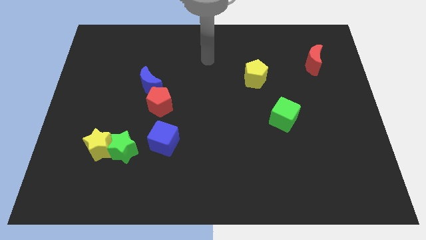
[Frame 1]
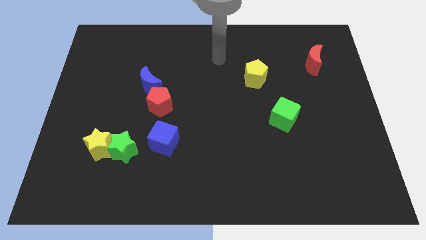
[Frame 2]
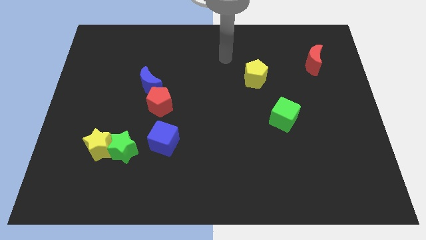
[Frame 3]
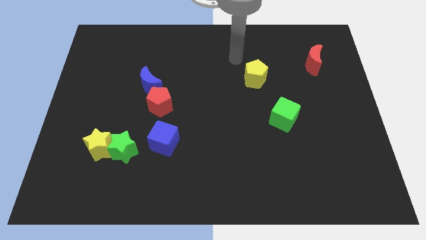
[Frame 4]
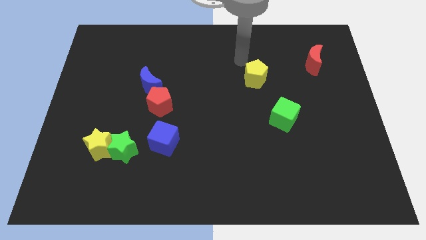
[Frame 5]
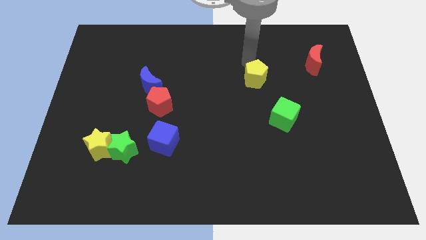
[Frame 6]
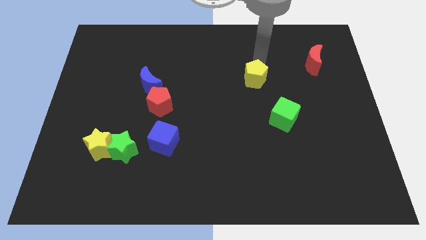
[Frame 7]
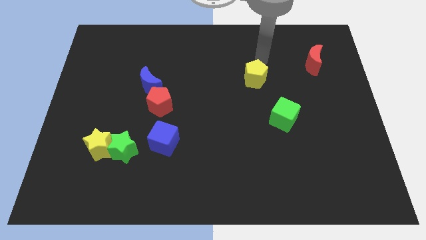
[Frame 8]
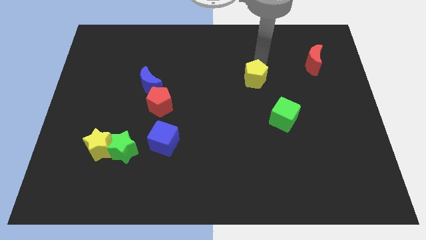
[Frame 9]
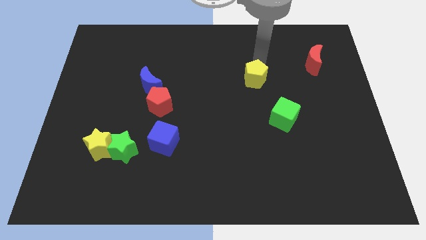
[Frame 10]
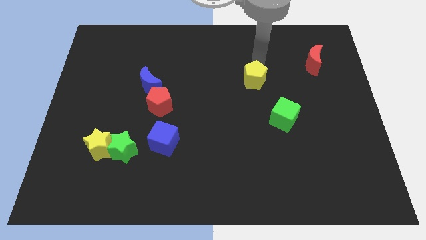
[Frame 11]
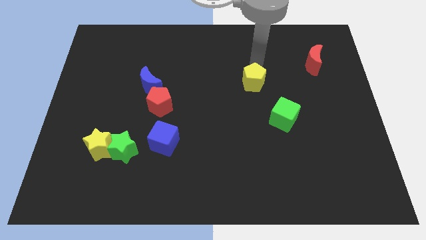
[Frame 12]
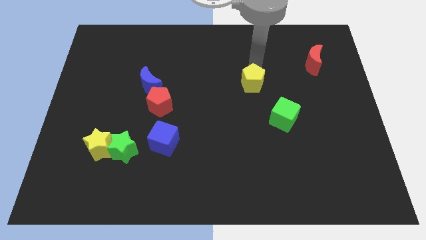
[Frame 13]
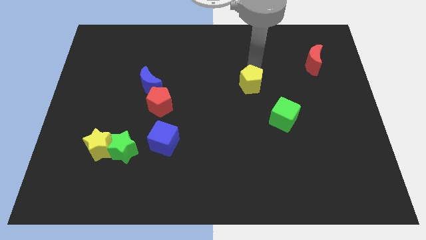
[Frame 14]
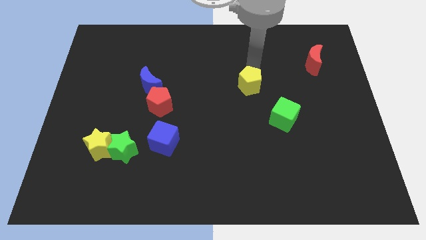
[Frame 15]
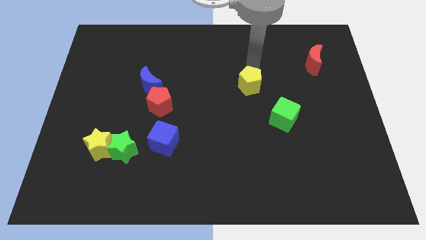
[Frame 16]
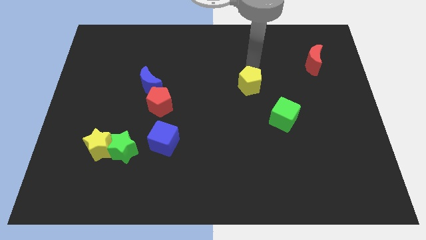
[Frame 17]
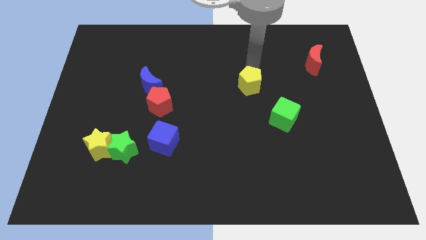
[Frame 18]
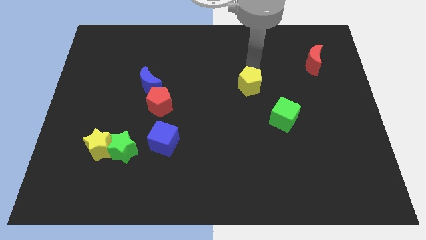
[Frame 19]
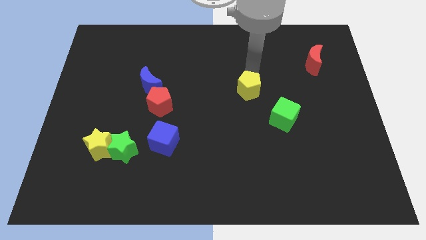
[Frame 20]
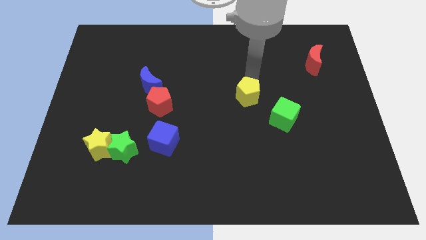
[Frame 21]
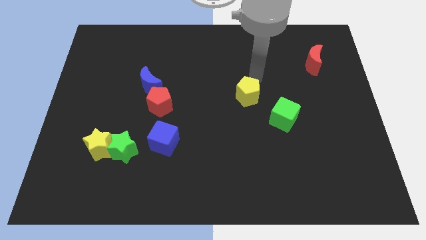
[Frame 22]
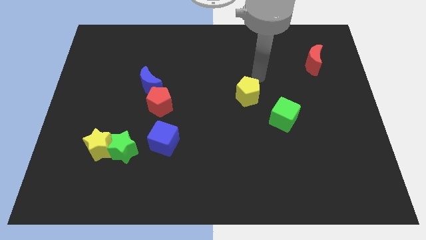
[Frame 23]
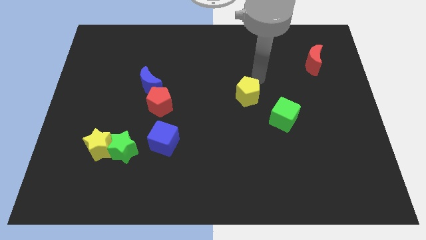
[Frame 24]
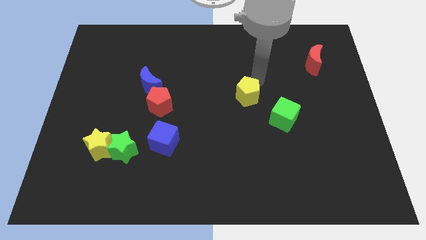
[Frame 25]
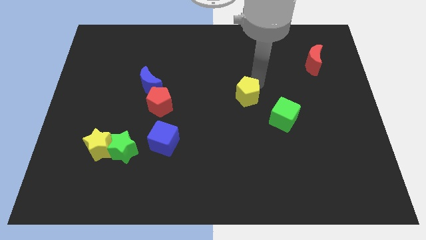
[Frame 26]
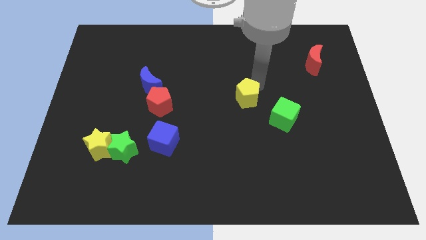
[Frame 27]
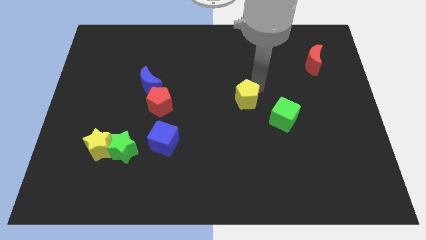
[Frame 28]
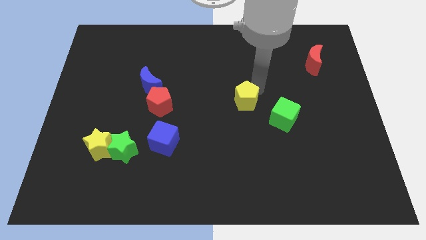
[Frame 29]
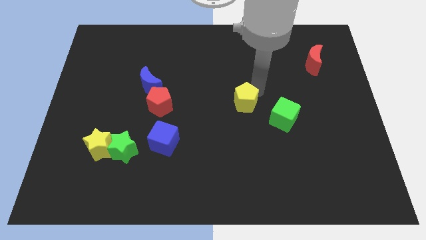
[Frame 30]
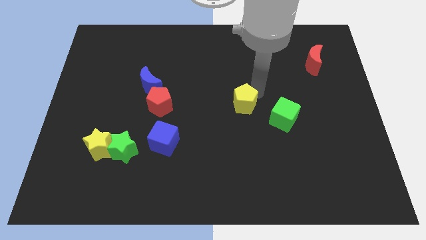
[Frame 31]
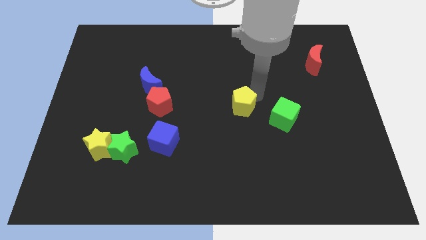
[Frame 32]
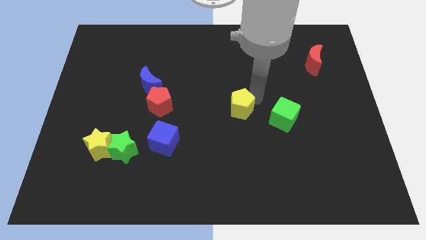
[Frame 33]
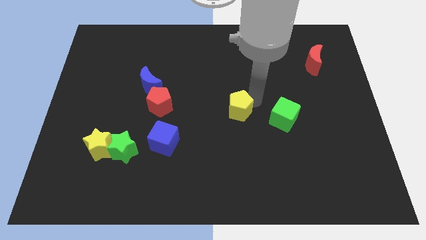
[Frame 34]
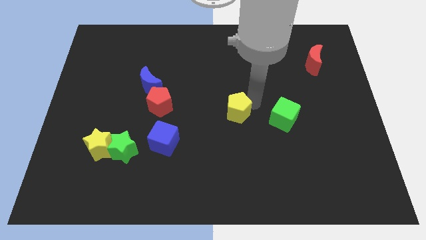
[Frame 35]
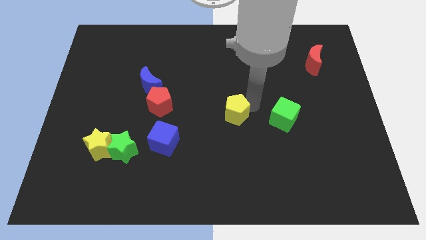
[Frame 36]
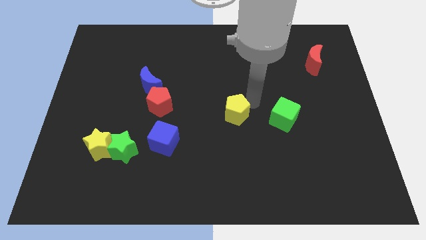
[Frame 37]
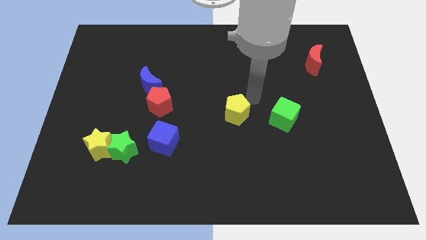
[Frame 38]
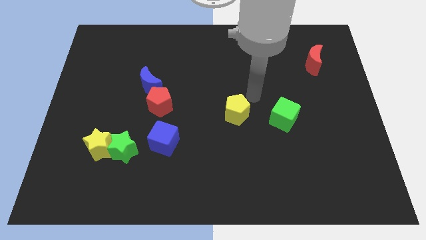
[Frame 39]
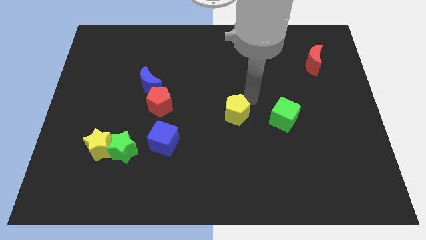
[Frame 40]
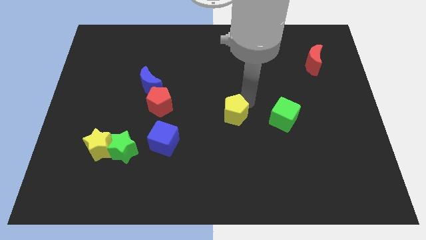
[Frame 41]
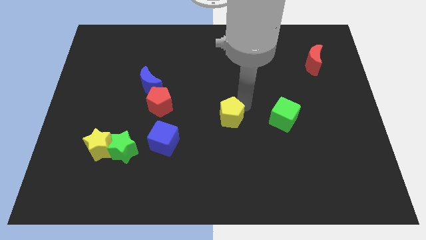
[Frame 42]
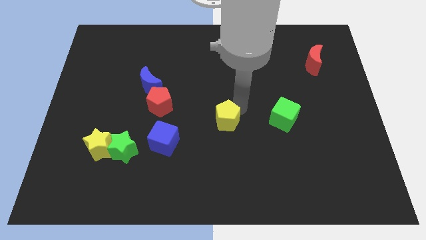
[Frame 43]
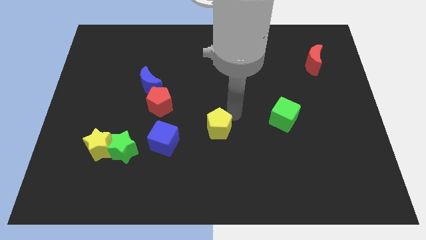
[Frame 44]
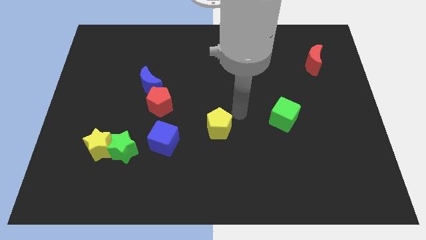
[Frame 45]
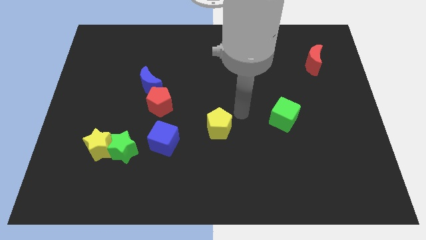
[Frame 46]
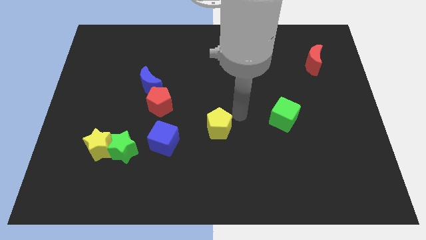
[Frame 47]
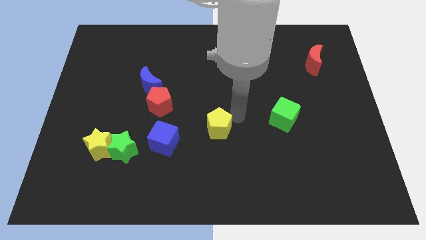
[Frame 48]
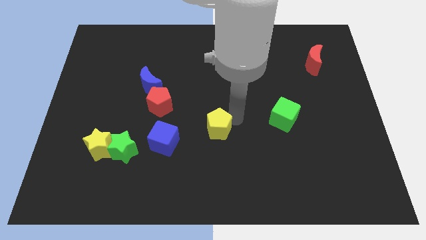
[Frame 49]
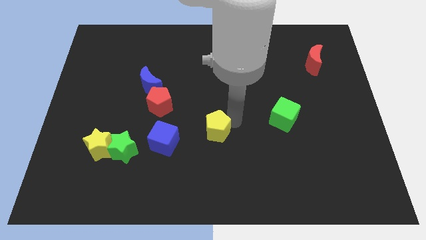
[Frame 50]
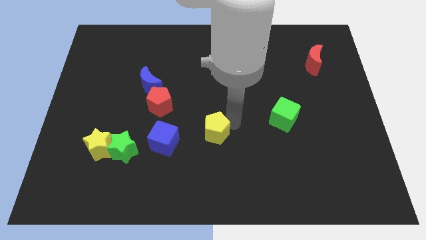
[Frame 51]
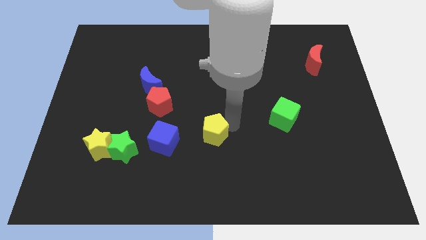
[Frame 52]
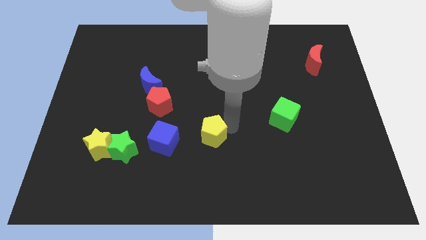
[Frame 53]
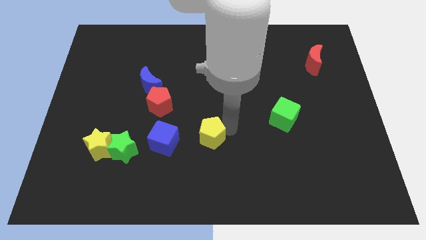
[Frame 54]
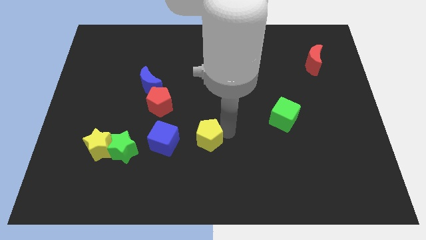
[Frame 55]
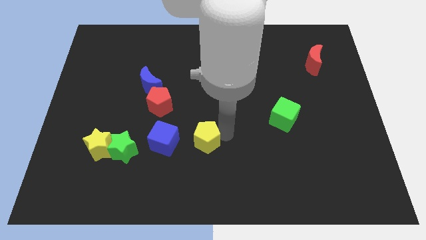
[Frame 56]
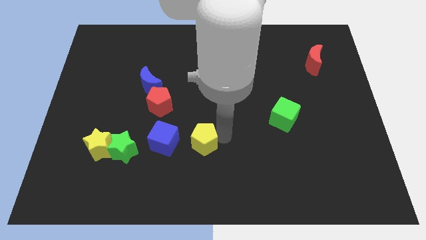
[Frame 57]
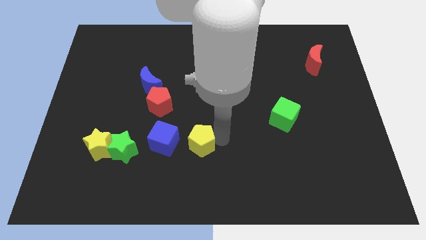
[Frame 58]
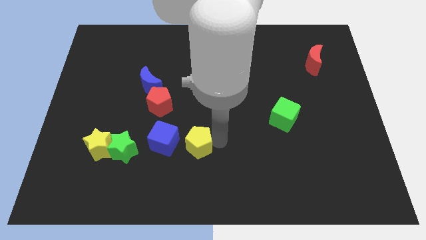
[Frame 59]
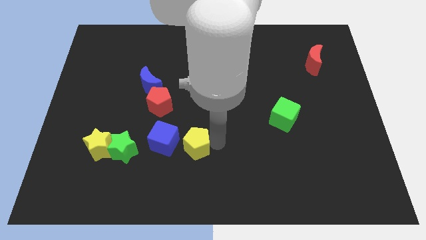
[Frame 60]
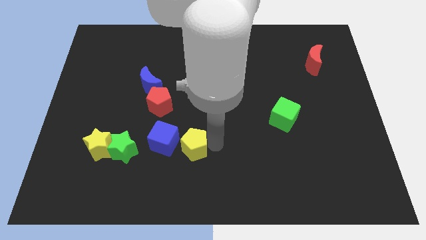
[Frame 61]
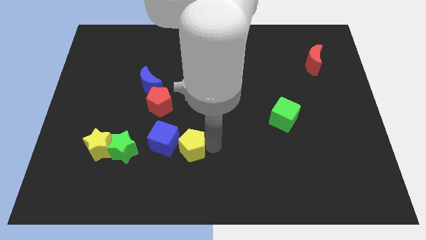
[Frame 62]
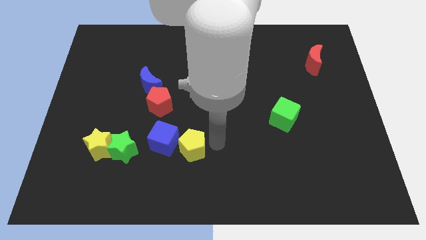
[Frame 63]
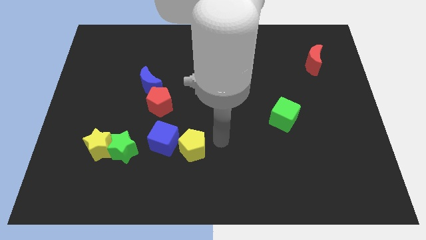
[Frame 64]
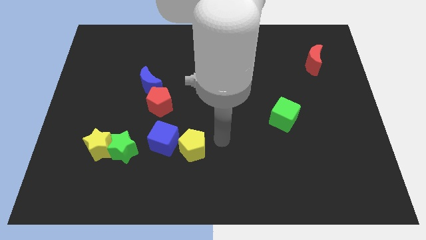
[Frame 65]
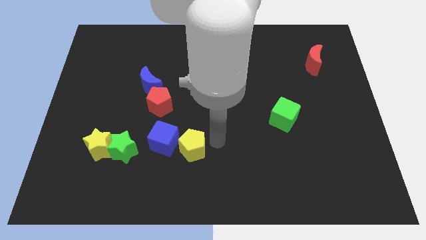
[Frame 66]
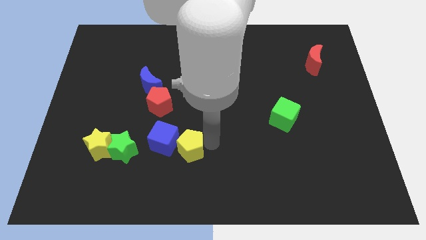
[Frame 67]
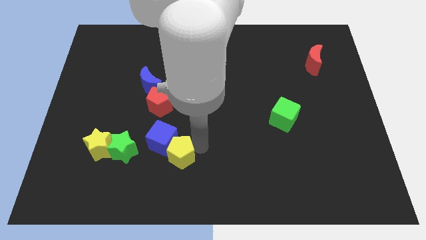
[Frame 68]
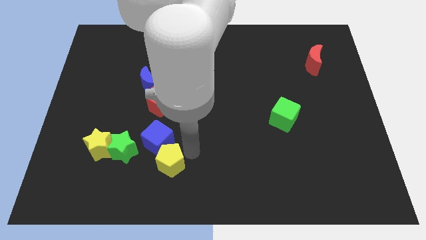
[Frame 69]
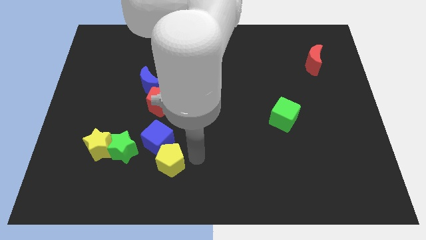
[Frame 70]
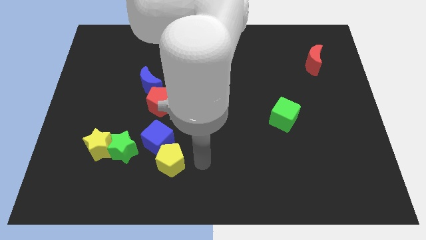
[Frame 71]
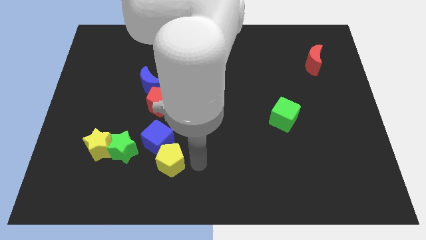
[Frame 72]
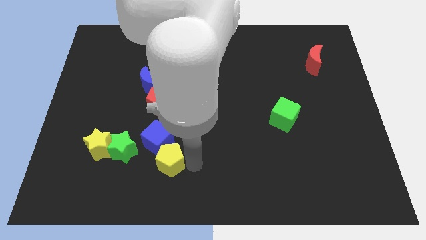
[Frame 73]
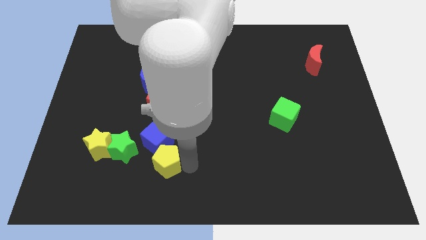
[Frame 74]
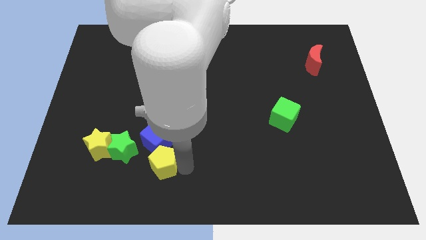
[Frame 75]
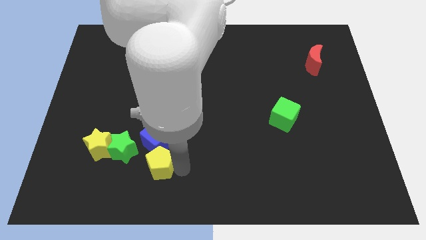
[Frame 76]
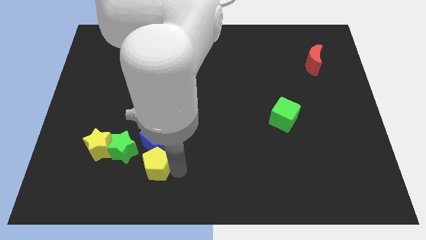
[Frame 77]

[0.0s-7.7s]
slide the yellow pentagon to the bottom left of the blue cube
